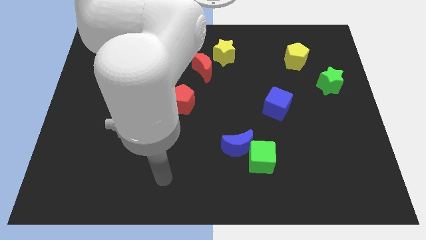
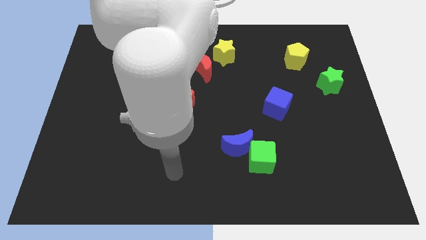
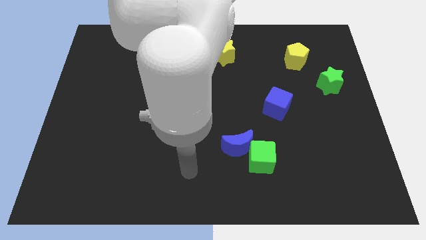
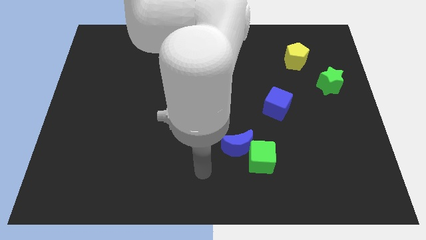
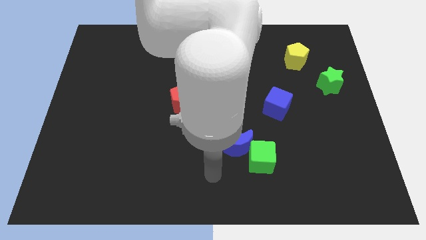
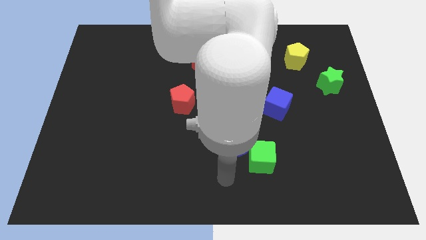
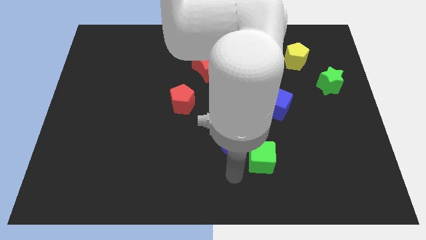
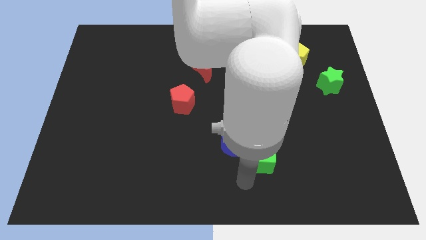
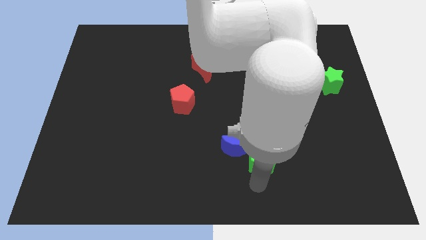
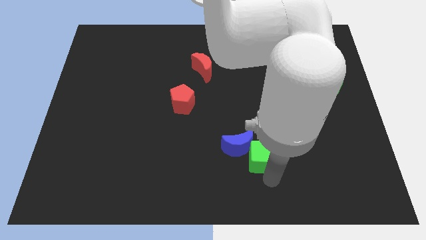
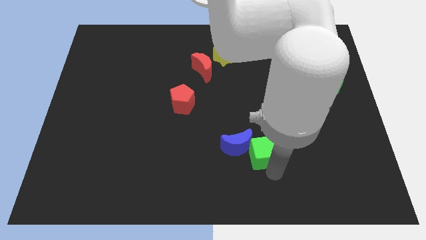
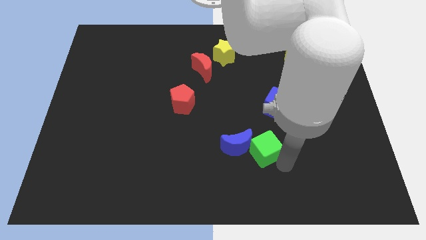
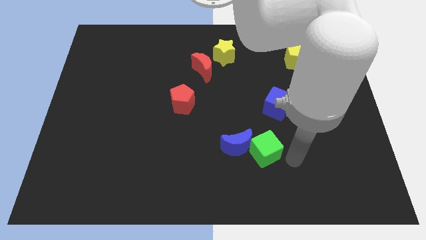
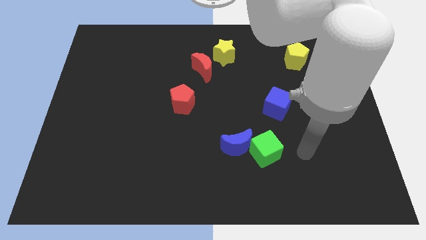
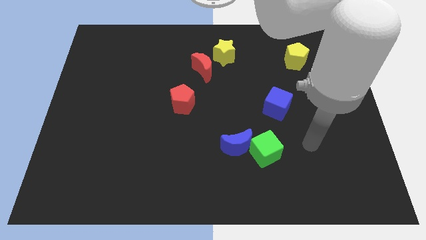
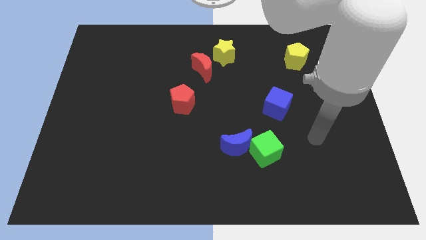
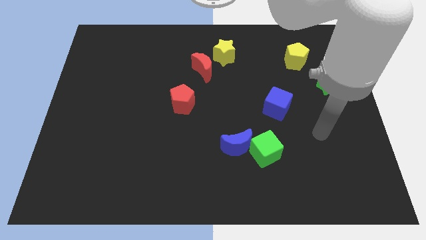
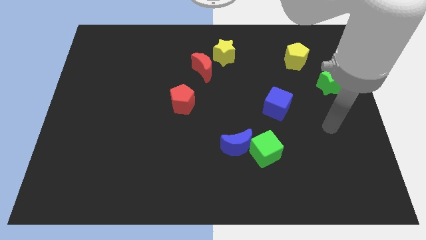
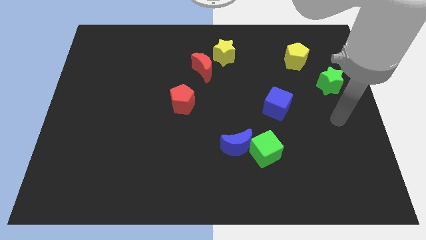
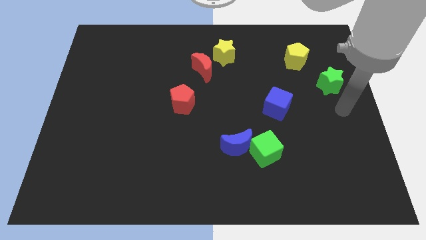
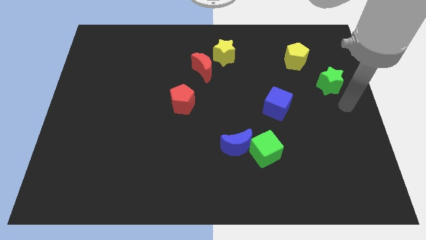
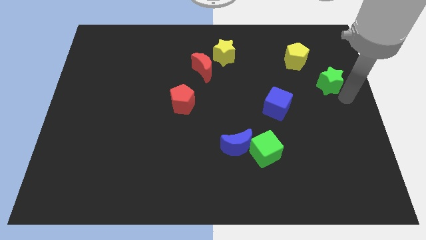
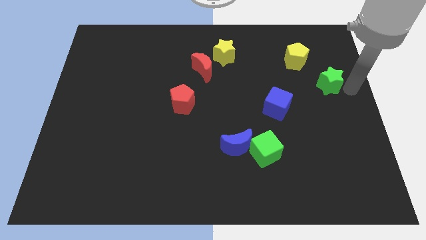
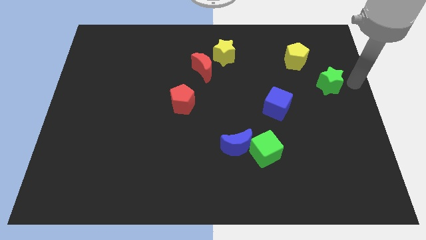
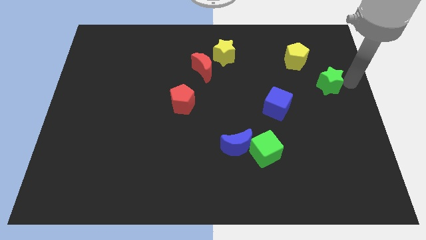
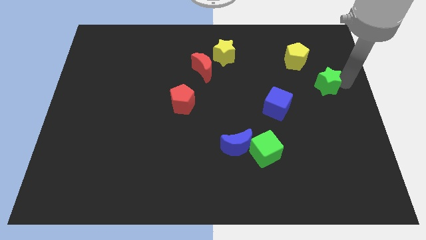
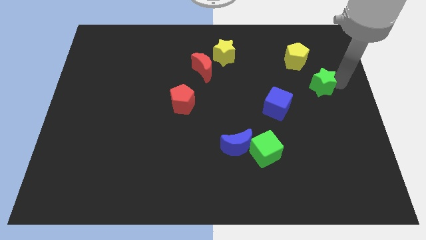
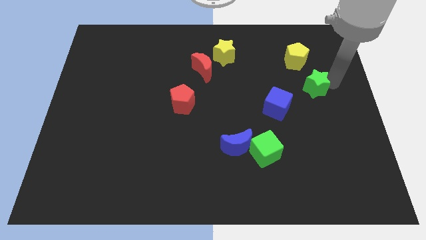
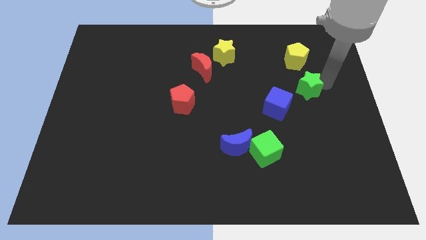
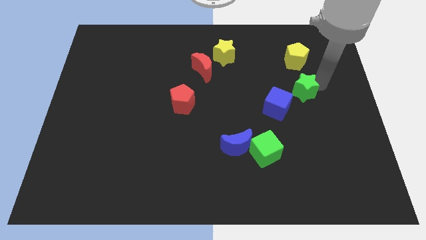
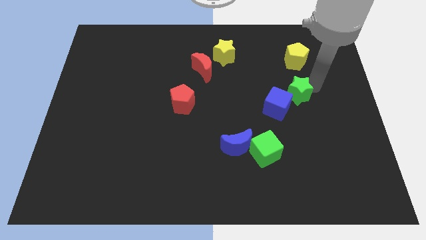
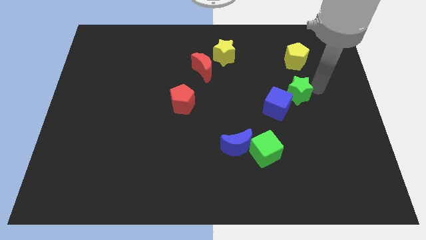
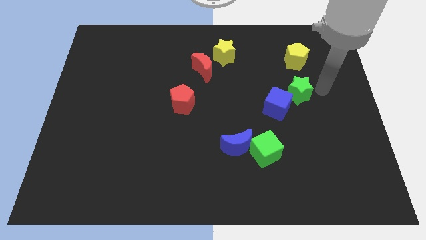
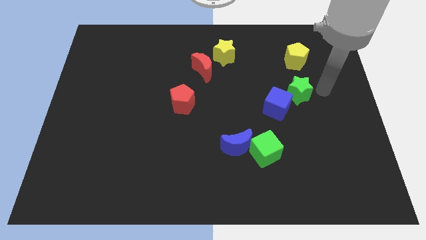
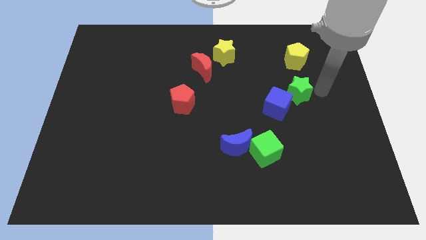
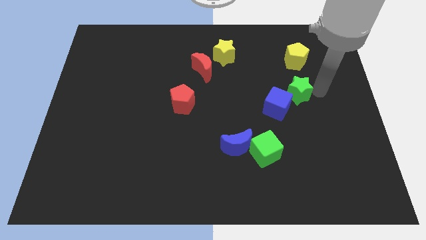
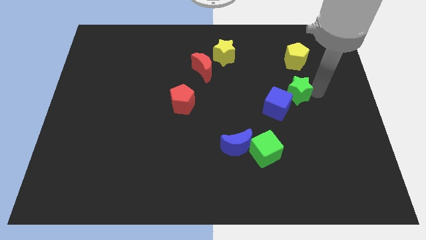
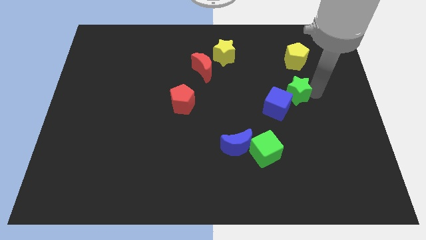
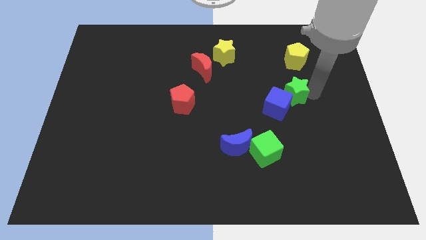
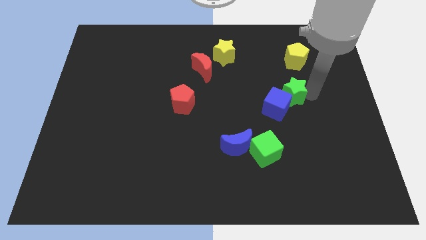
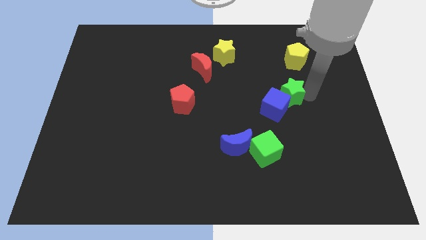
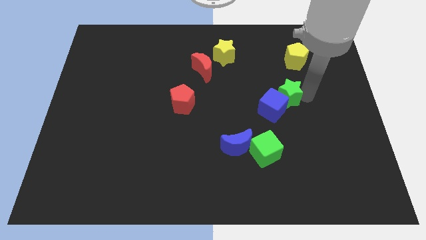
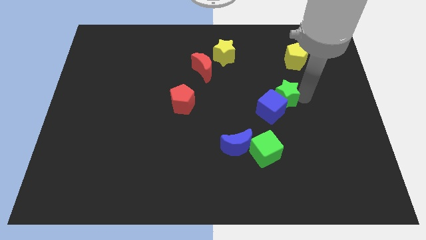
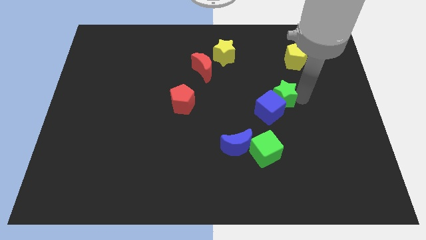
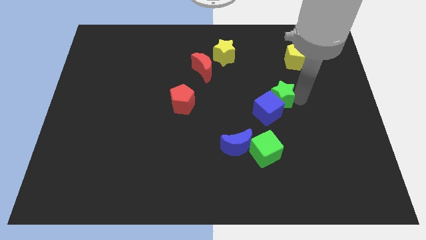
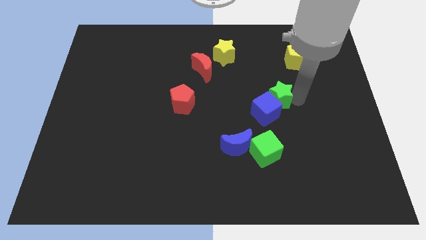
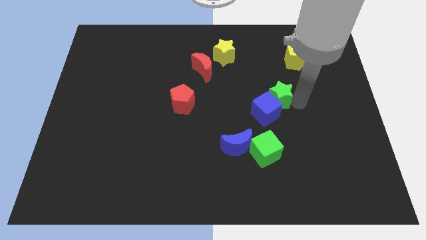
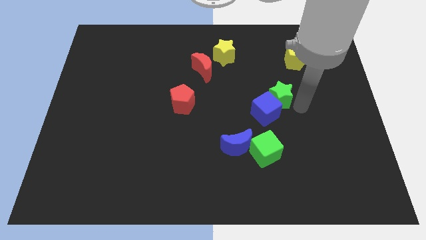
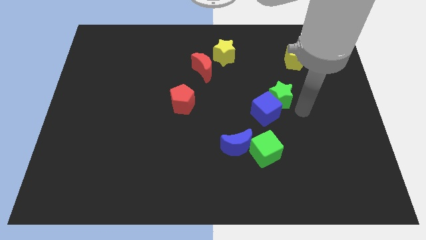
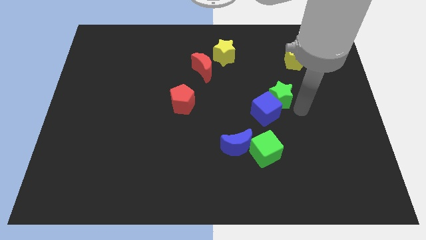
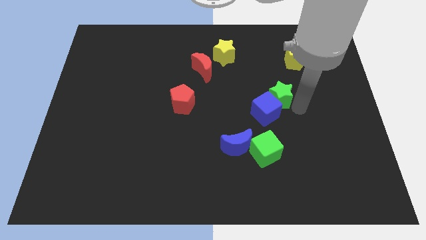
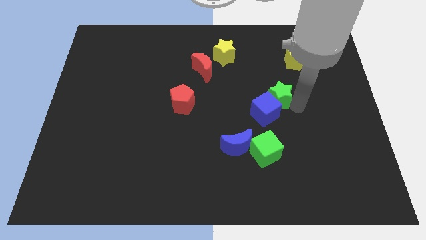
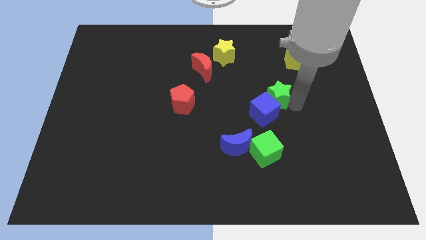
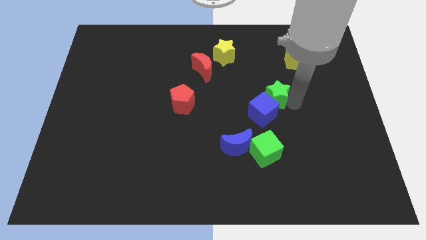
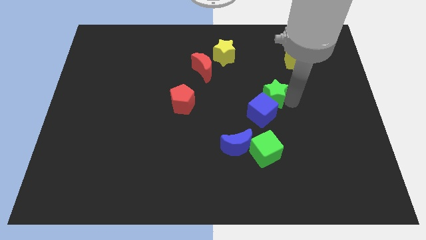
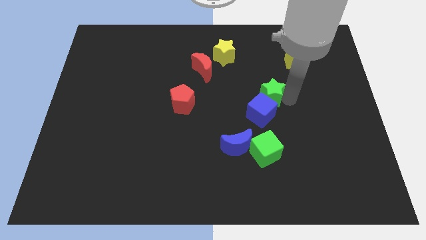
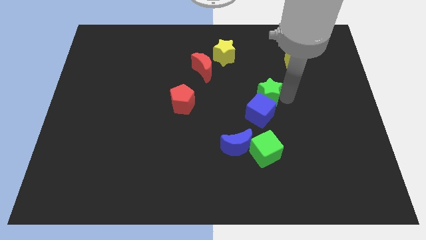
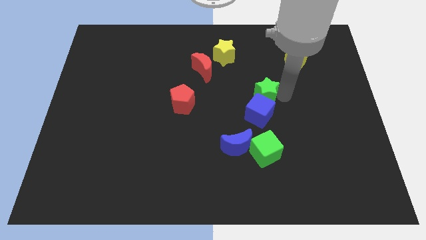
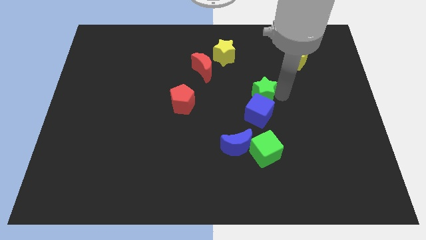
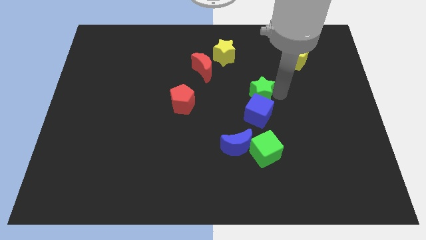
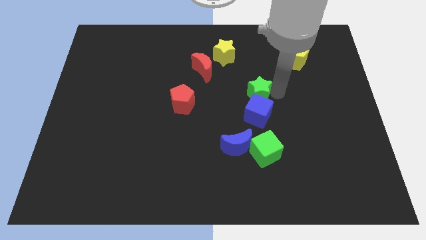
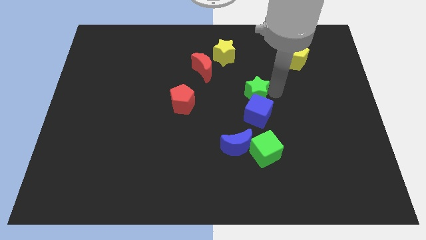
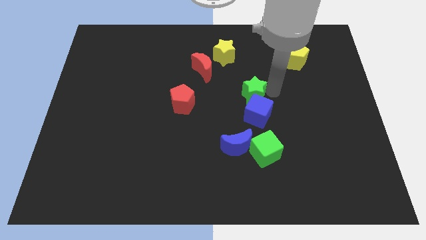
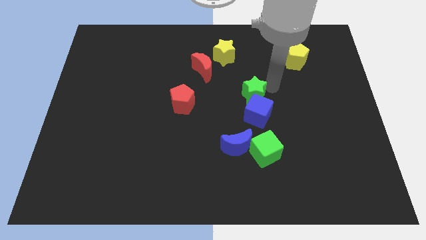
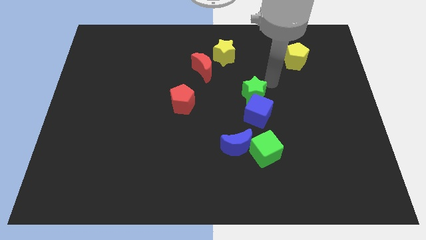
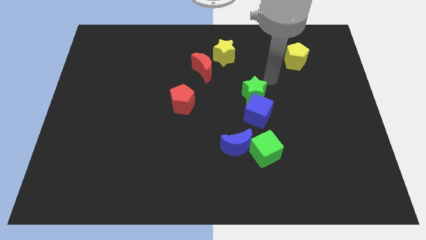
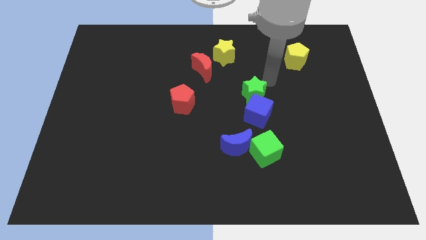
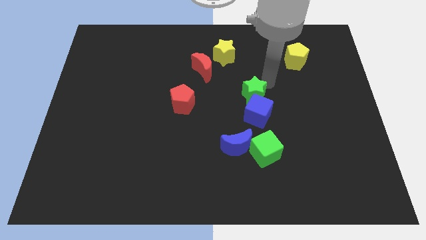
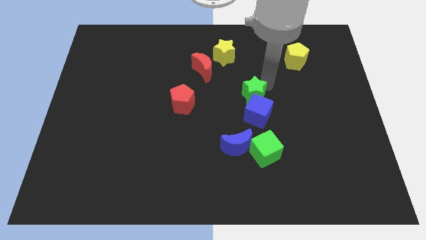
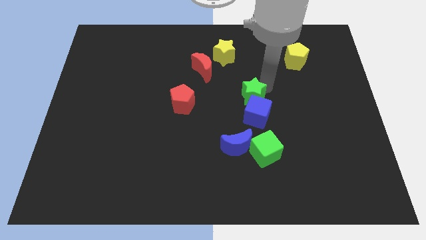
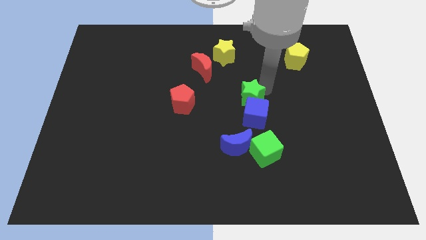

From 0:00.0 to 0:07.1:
put the green star to the top side of the blue moon
